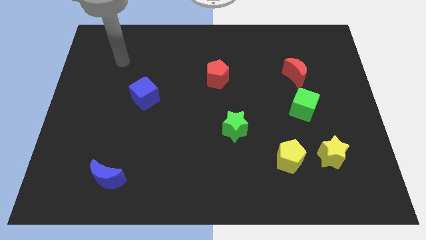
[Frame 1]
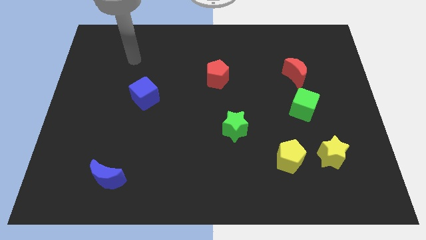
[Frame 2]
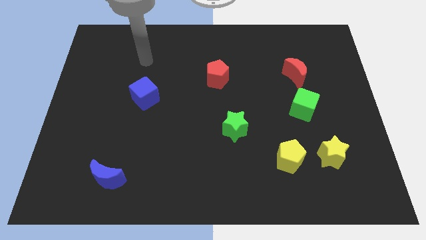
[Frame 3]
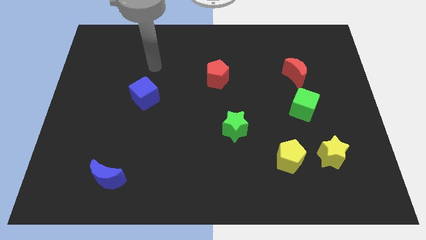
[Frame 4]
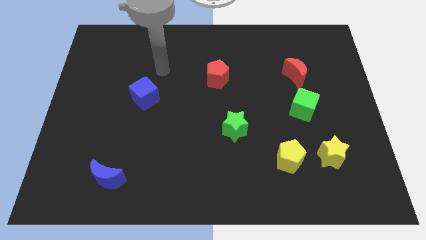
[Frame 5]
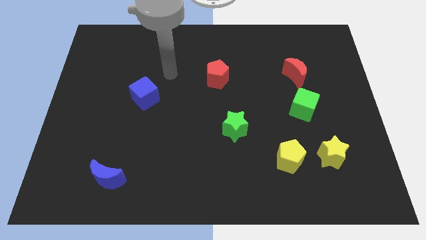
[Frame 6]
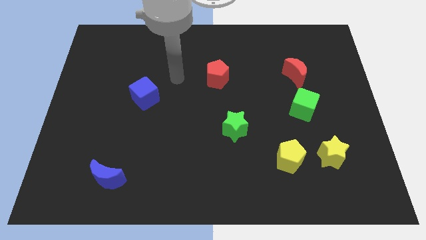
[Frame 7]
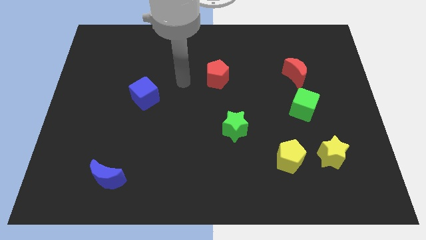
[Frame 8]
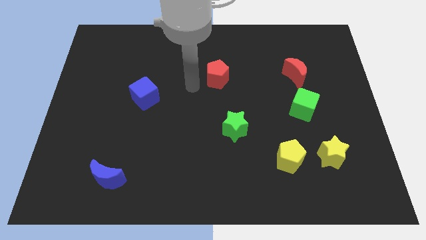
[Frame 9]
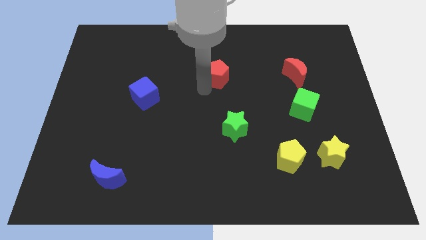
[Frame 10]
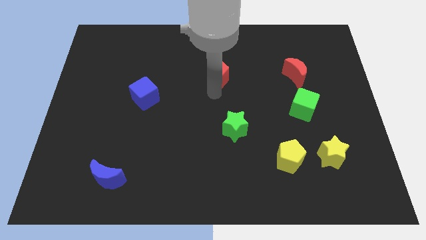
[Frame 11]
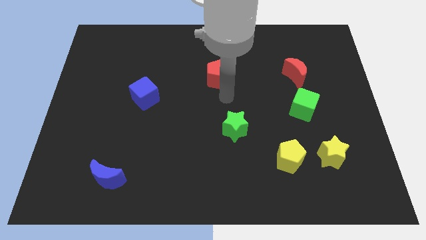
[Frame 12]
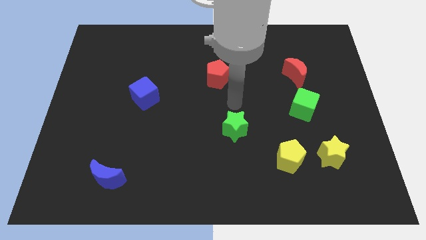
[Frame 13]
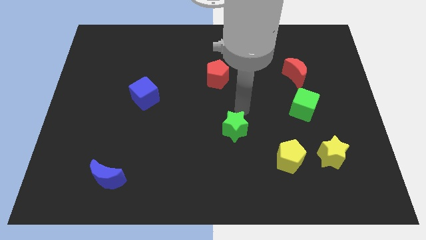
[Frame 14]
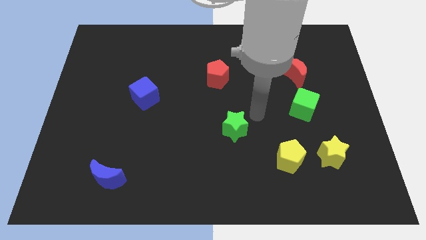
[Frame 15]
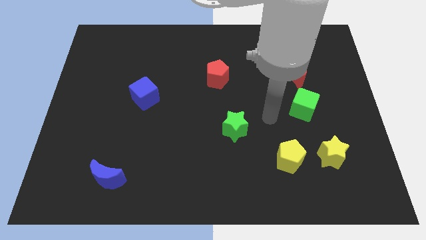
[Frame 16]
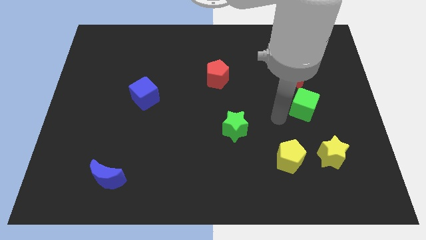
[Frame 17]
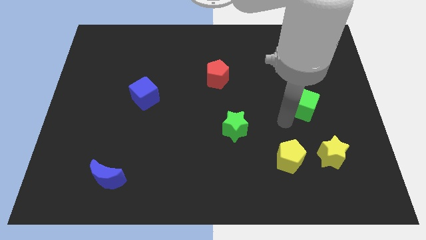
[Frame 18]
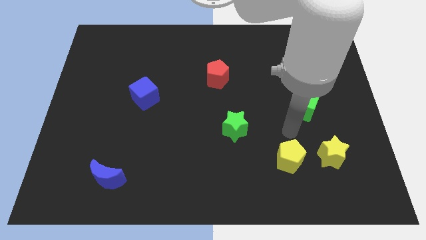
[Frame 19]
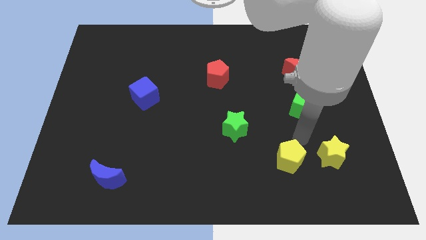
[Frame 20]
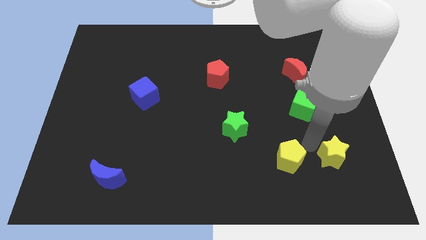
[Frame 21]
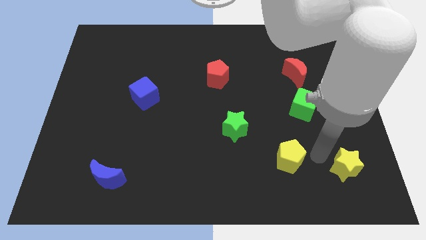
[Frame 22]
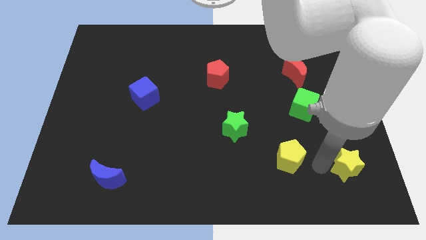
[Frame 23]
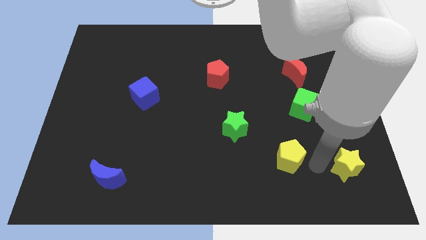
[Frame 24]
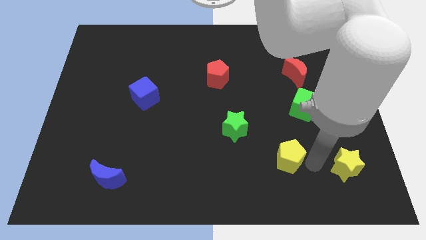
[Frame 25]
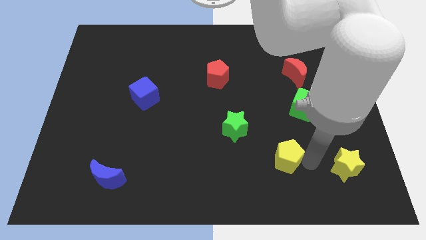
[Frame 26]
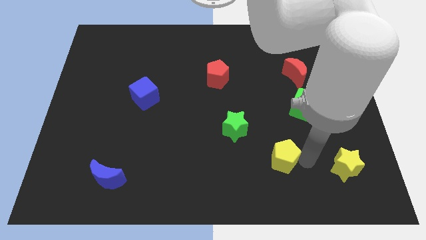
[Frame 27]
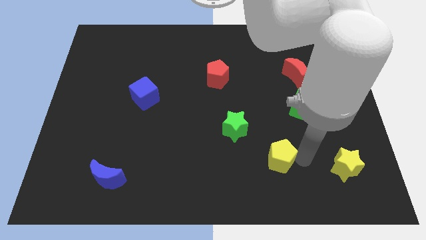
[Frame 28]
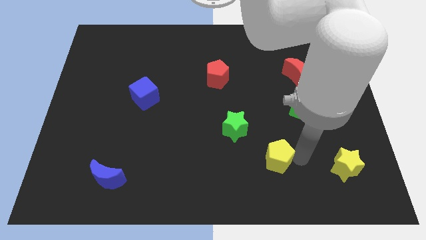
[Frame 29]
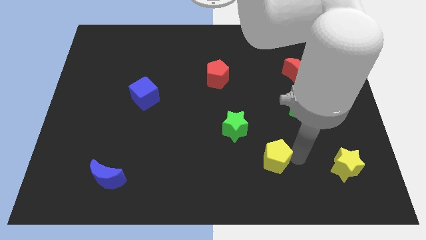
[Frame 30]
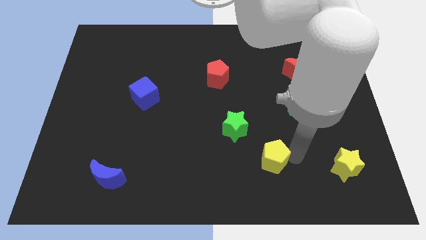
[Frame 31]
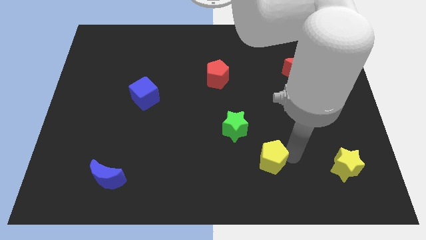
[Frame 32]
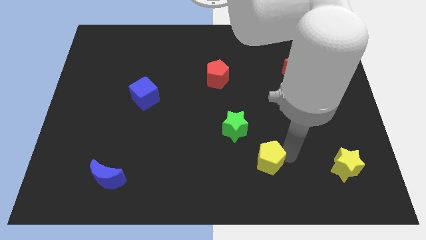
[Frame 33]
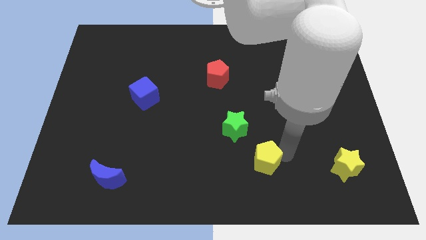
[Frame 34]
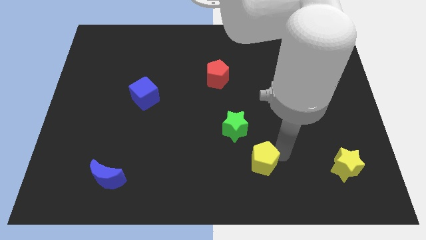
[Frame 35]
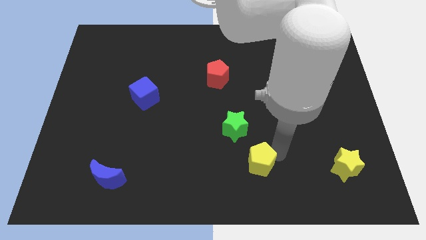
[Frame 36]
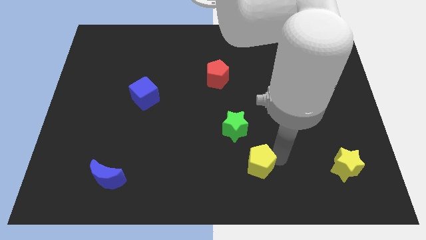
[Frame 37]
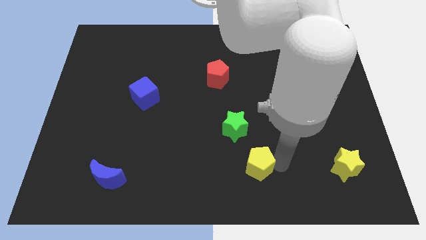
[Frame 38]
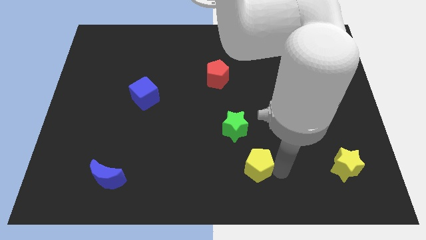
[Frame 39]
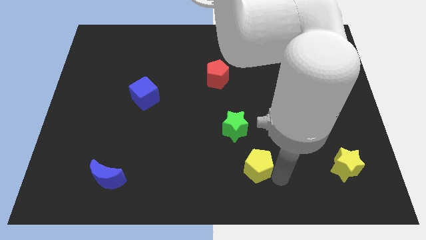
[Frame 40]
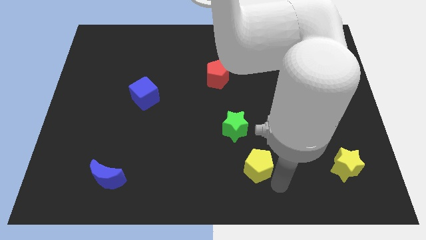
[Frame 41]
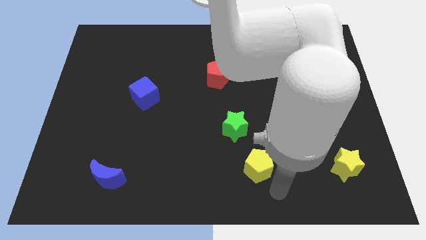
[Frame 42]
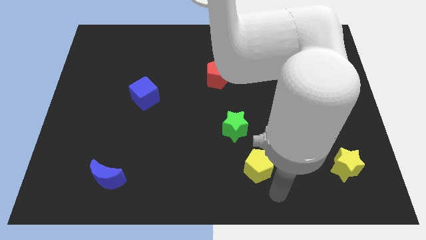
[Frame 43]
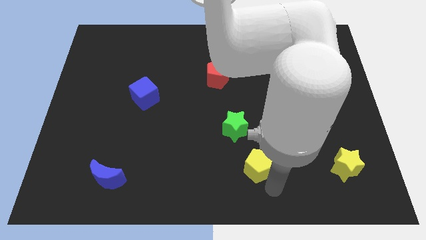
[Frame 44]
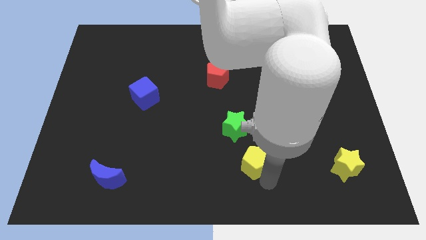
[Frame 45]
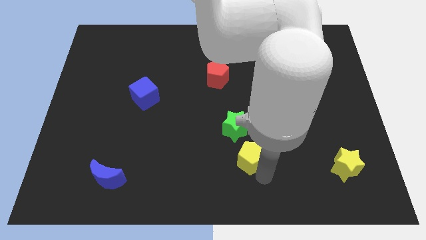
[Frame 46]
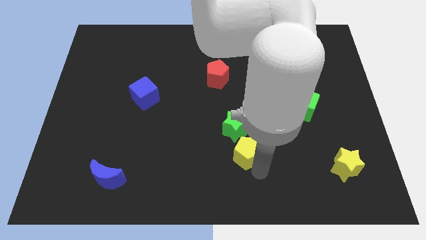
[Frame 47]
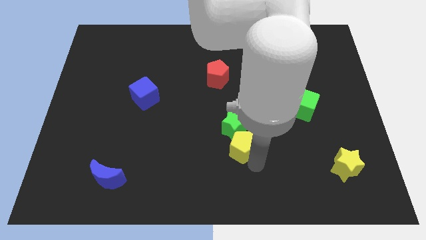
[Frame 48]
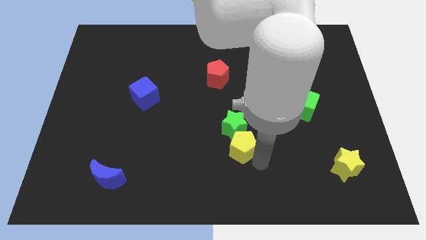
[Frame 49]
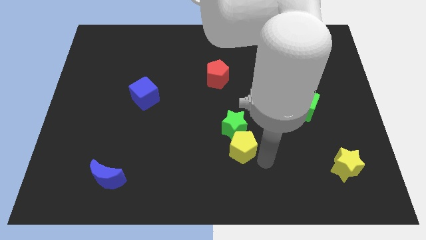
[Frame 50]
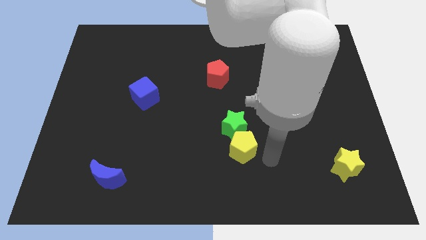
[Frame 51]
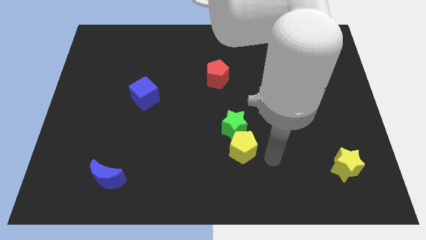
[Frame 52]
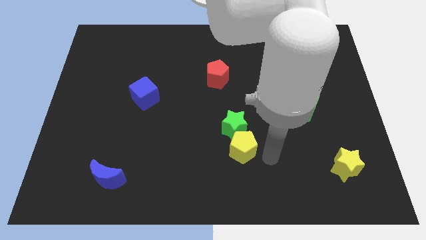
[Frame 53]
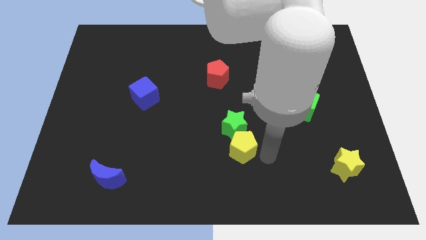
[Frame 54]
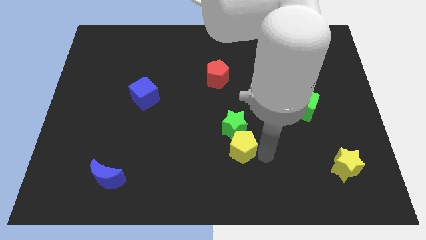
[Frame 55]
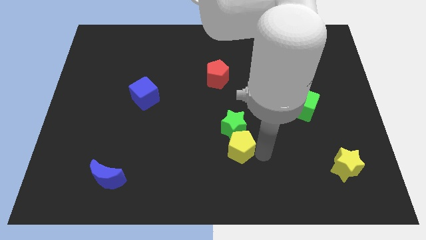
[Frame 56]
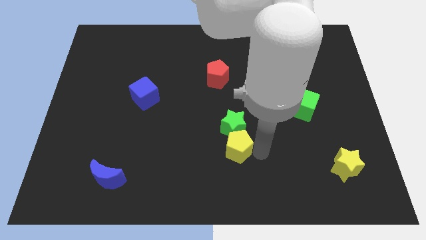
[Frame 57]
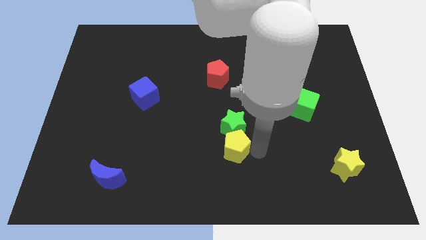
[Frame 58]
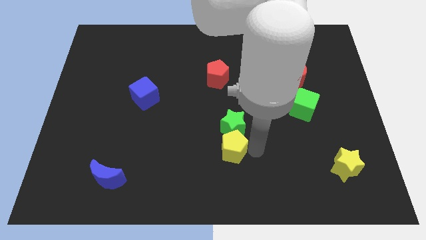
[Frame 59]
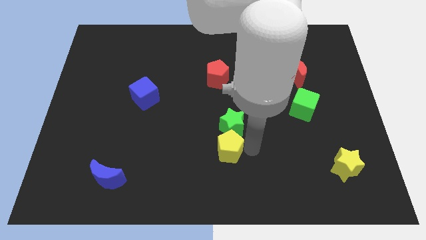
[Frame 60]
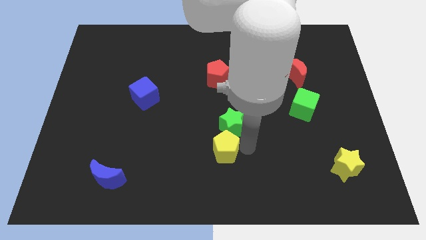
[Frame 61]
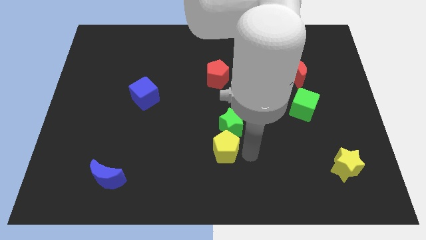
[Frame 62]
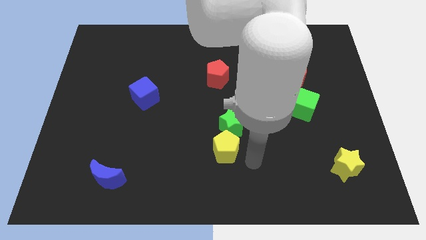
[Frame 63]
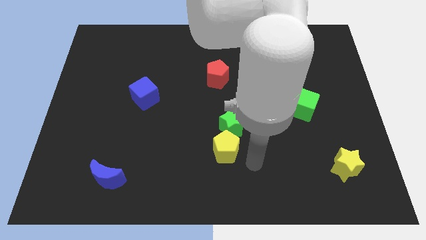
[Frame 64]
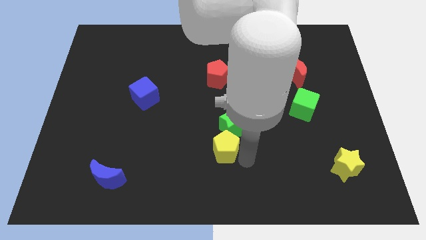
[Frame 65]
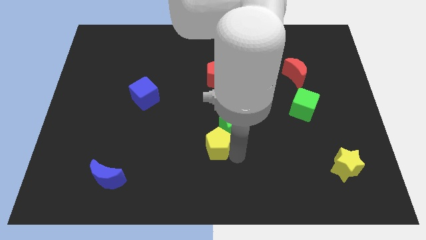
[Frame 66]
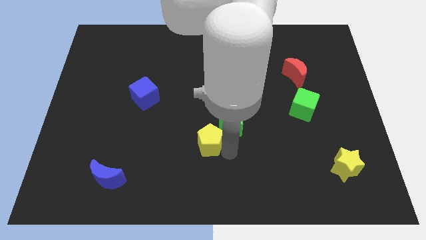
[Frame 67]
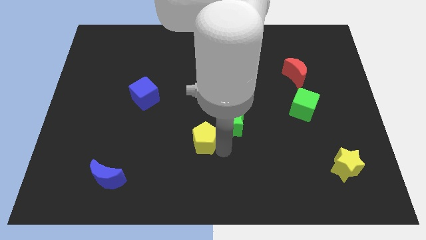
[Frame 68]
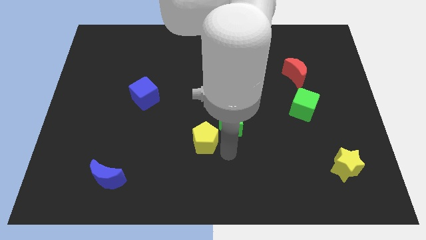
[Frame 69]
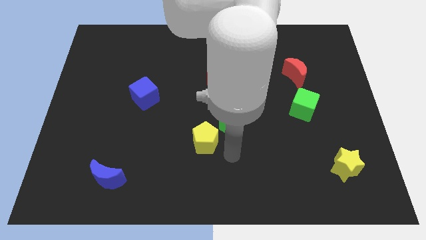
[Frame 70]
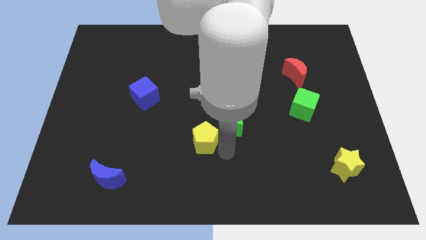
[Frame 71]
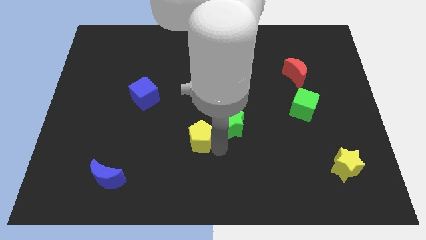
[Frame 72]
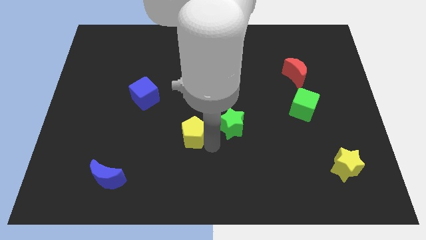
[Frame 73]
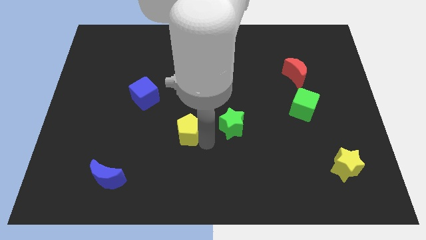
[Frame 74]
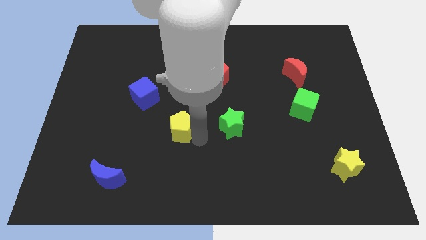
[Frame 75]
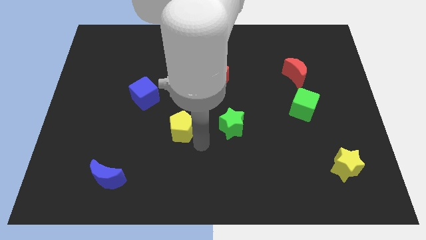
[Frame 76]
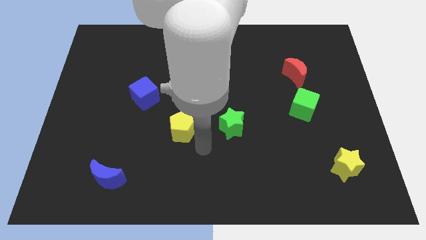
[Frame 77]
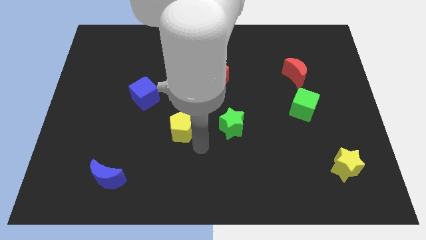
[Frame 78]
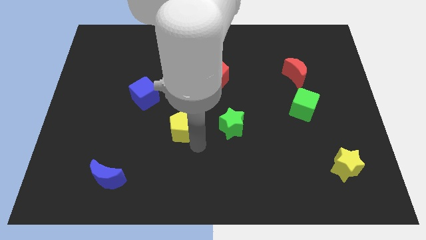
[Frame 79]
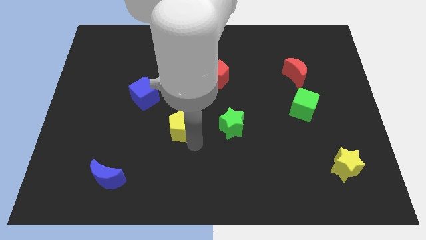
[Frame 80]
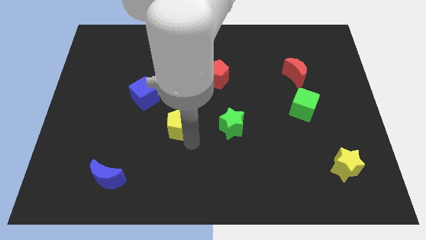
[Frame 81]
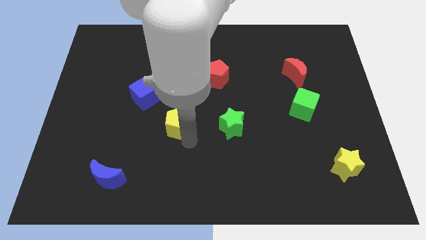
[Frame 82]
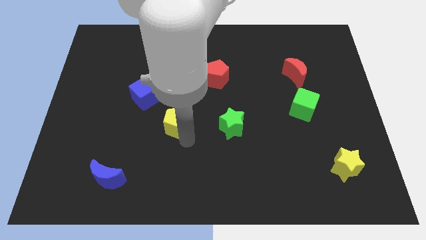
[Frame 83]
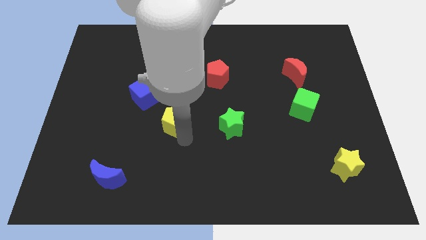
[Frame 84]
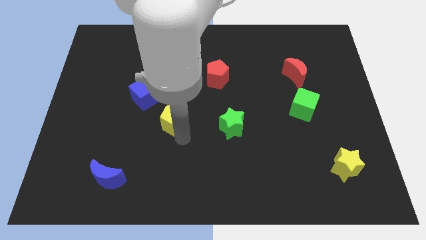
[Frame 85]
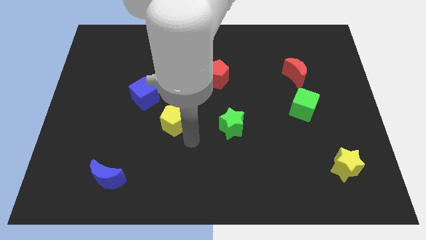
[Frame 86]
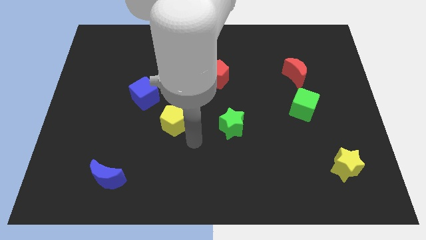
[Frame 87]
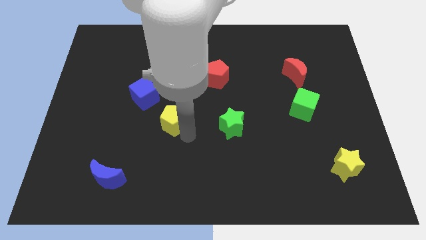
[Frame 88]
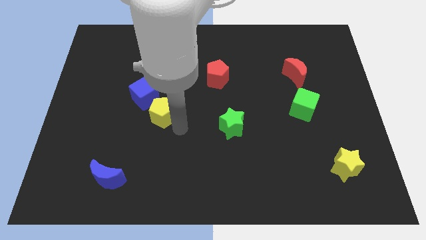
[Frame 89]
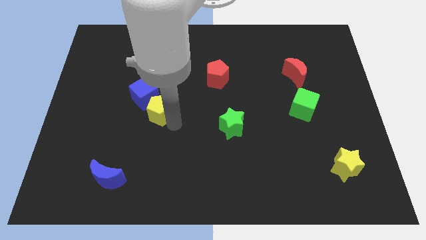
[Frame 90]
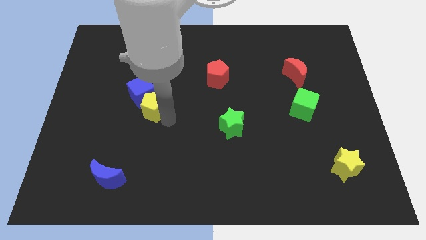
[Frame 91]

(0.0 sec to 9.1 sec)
slide the yellow pentagon to the blue cube
